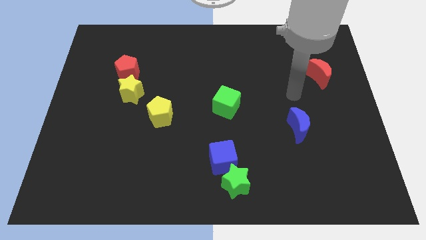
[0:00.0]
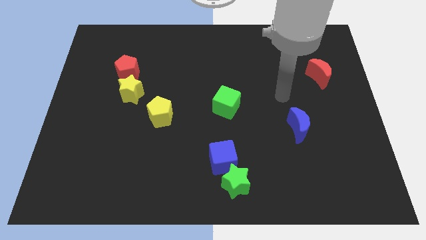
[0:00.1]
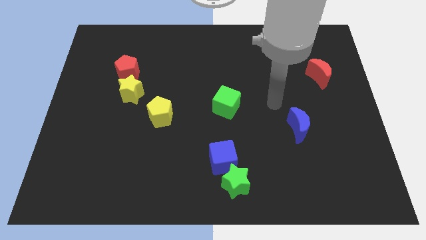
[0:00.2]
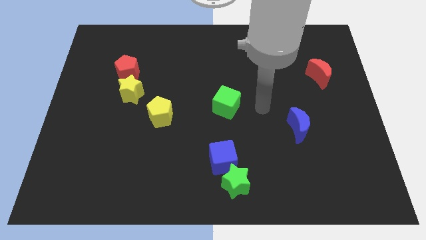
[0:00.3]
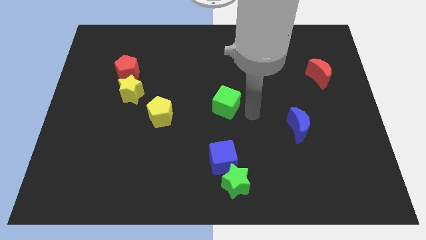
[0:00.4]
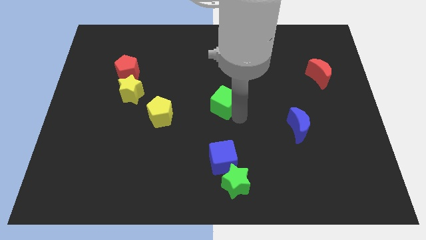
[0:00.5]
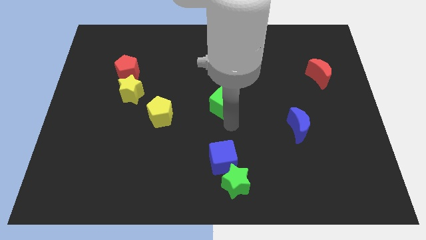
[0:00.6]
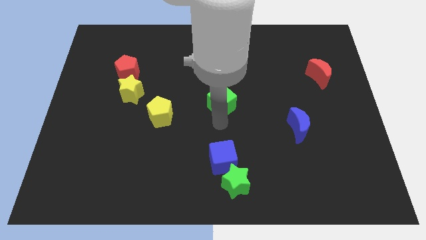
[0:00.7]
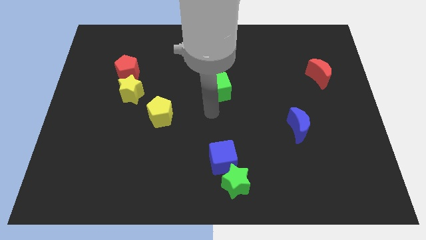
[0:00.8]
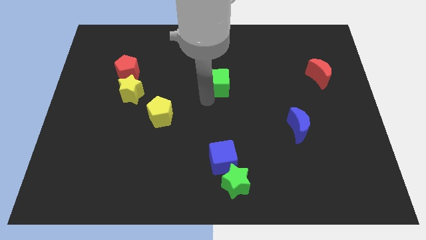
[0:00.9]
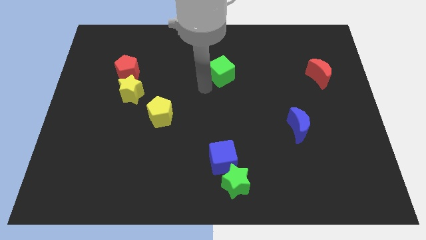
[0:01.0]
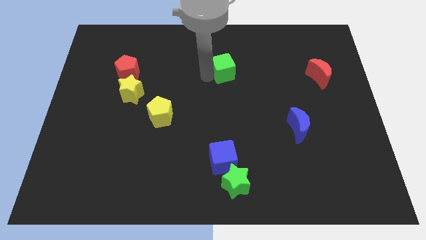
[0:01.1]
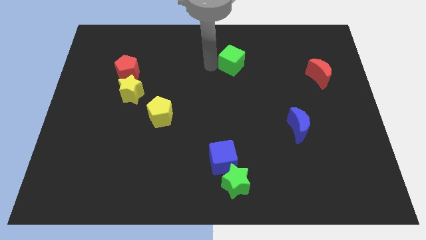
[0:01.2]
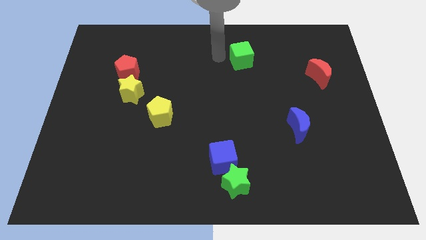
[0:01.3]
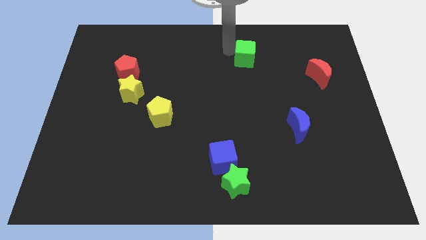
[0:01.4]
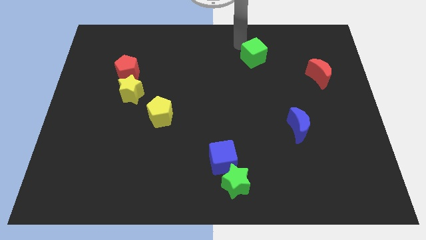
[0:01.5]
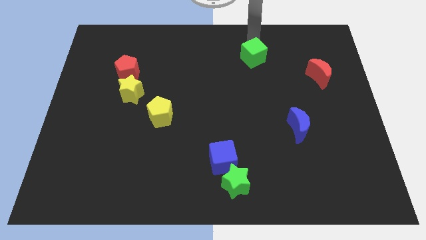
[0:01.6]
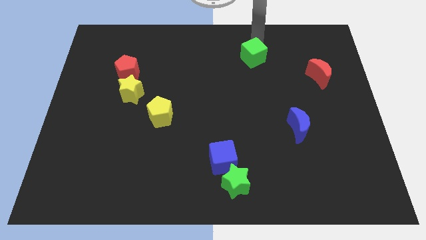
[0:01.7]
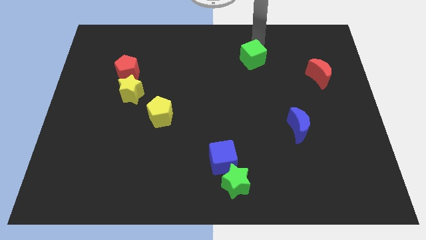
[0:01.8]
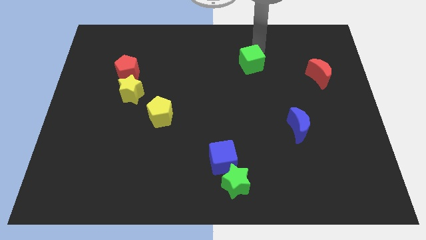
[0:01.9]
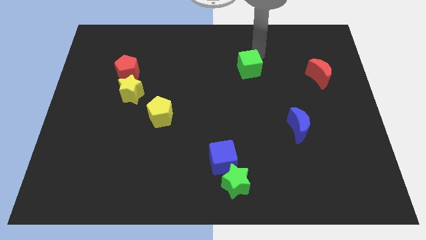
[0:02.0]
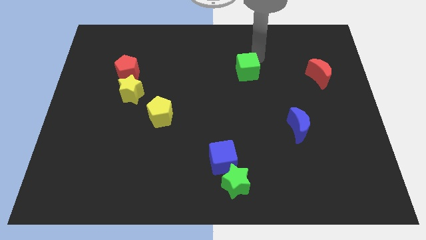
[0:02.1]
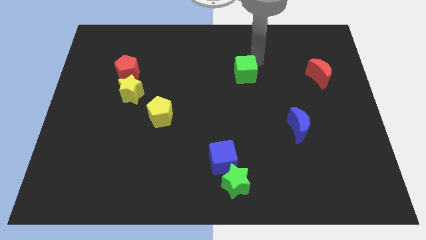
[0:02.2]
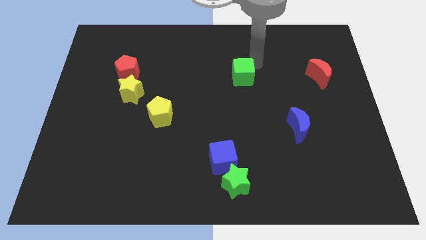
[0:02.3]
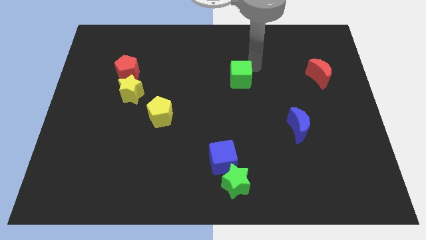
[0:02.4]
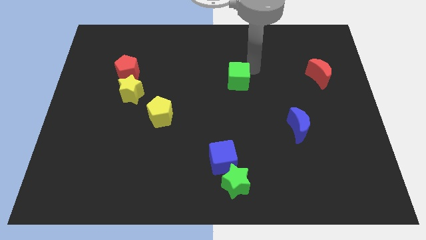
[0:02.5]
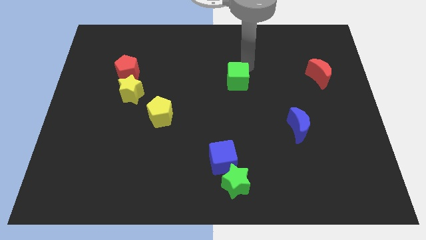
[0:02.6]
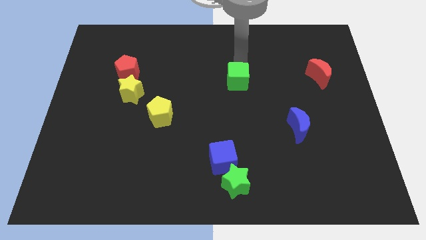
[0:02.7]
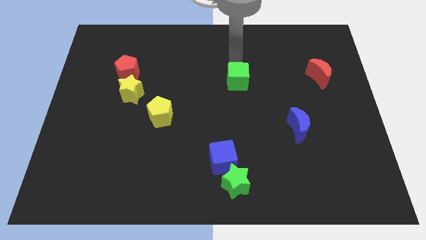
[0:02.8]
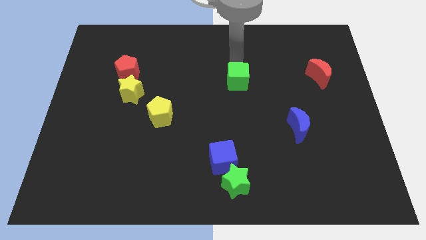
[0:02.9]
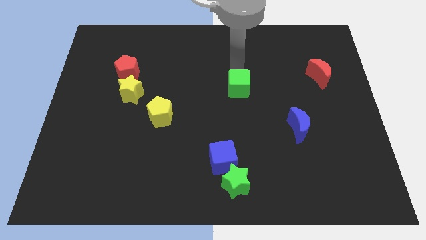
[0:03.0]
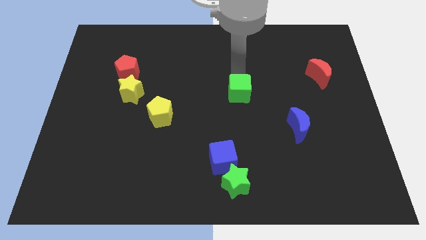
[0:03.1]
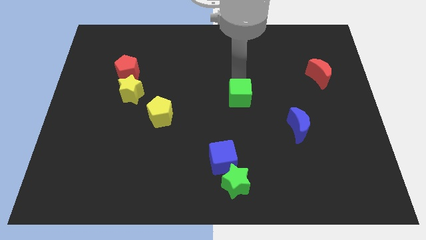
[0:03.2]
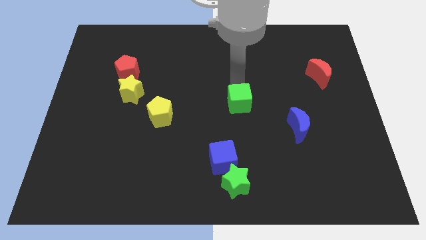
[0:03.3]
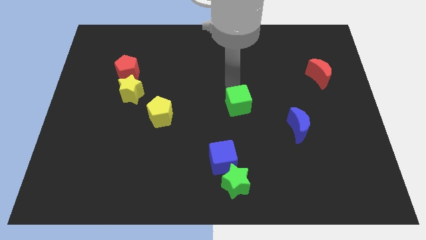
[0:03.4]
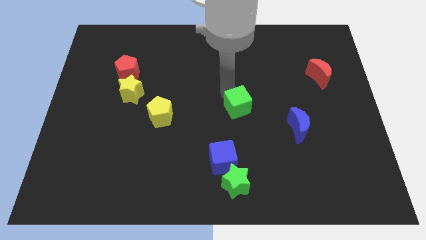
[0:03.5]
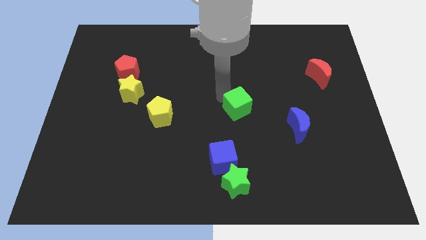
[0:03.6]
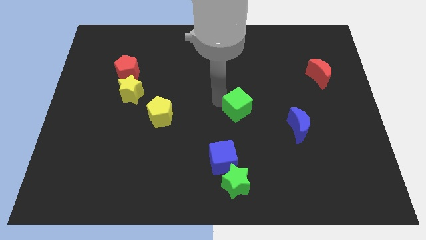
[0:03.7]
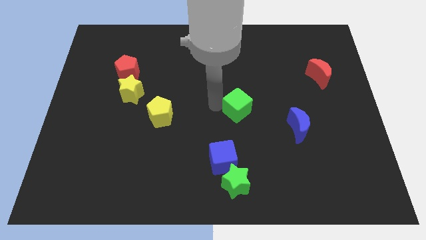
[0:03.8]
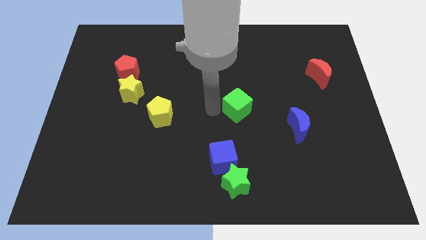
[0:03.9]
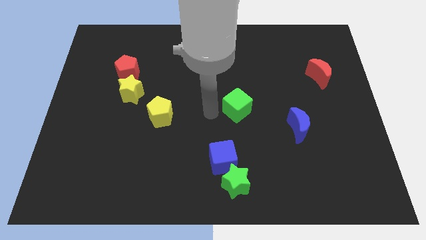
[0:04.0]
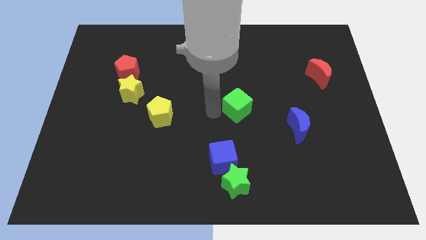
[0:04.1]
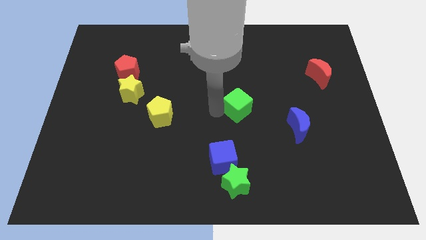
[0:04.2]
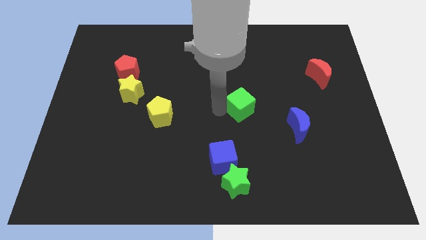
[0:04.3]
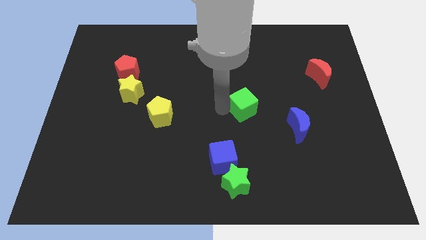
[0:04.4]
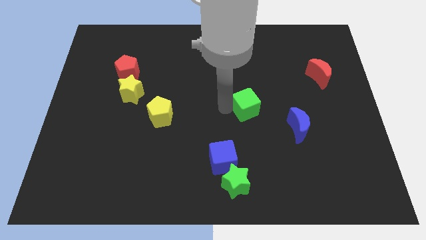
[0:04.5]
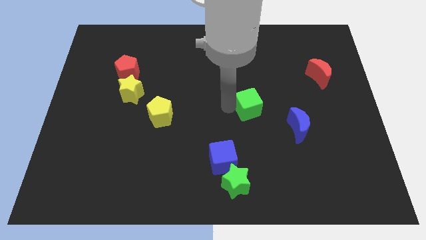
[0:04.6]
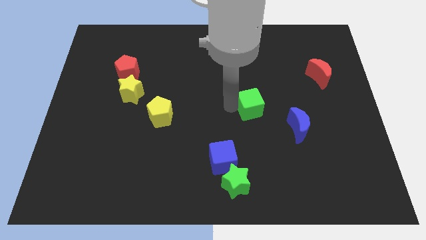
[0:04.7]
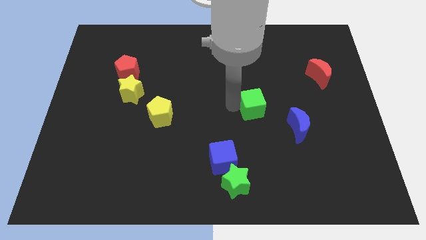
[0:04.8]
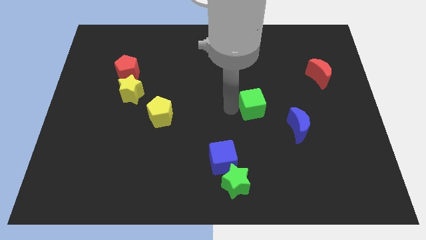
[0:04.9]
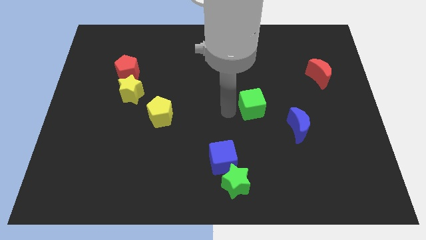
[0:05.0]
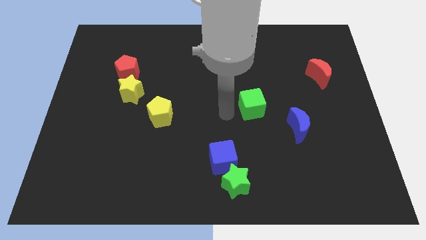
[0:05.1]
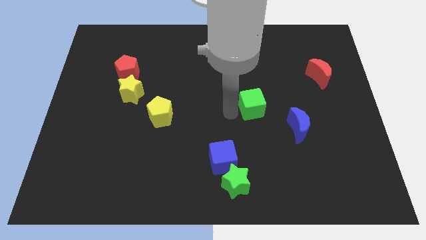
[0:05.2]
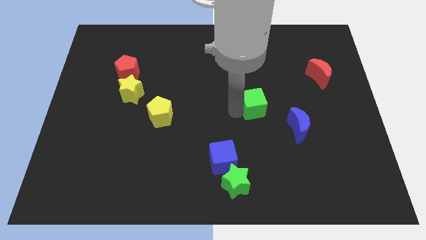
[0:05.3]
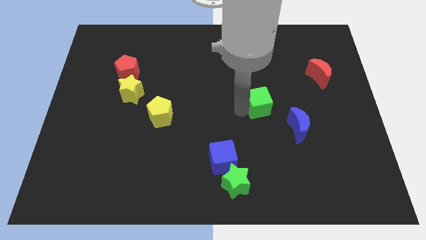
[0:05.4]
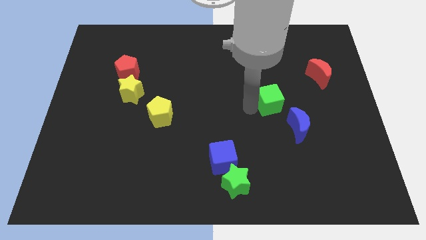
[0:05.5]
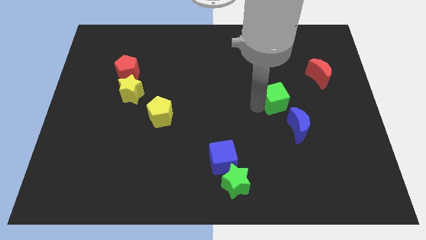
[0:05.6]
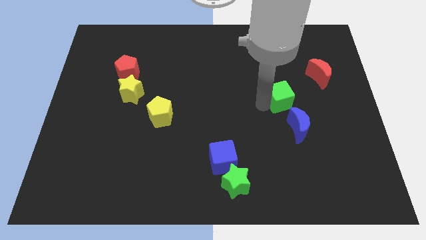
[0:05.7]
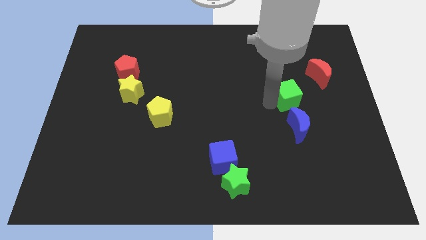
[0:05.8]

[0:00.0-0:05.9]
put the green cube to the bottom left side of the red moon

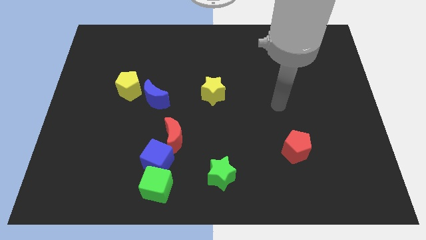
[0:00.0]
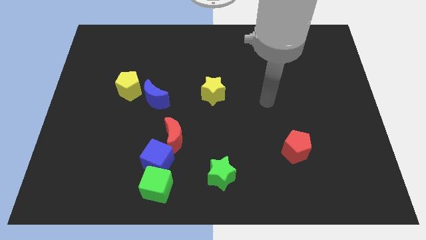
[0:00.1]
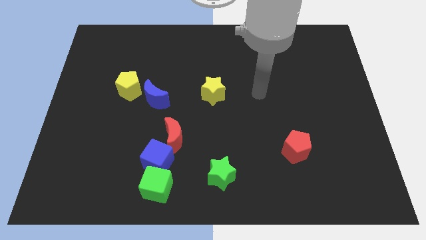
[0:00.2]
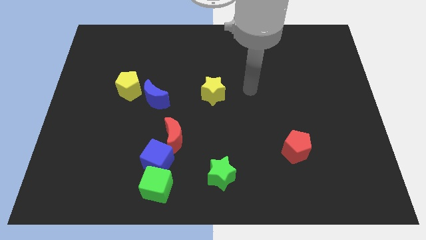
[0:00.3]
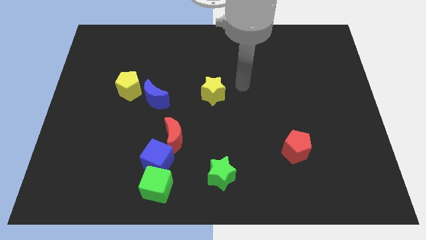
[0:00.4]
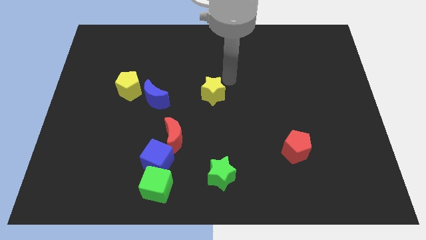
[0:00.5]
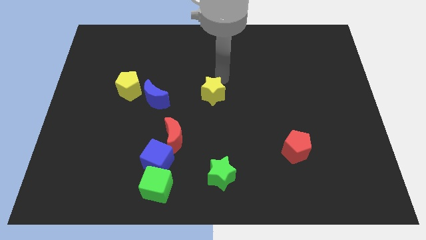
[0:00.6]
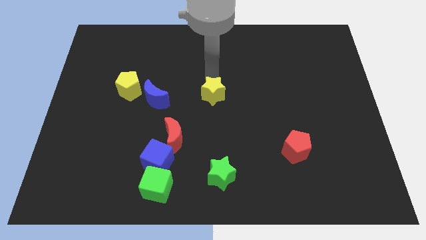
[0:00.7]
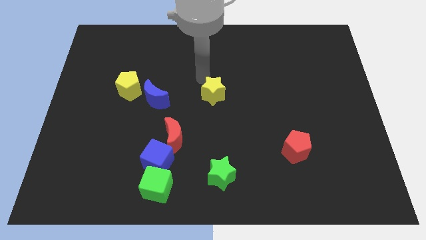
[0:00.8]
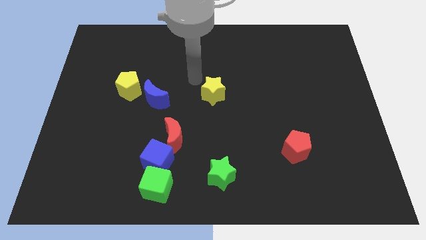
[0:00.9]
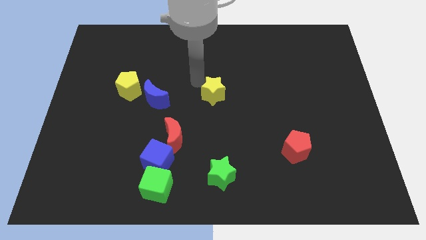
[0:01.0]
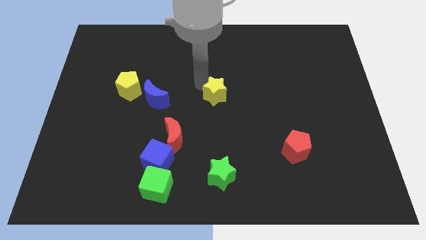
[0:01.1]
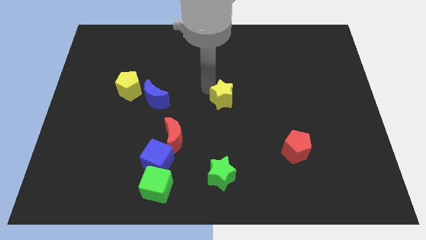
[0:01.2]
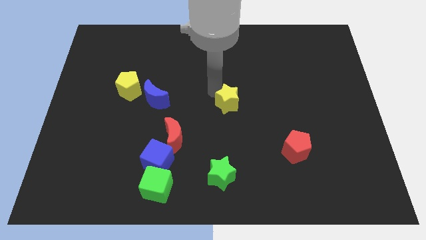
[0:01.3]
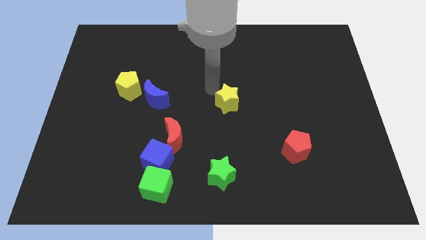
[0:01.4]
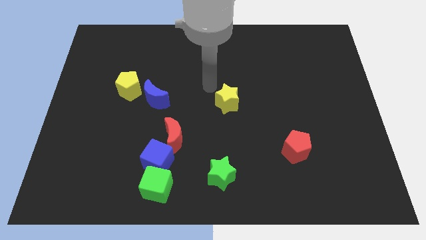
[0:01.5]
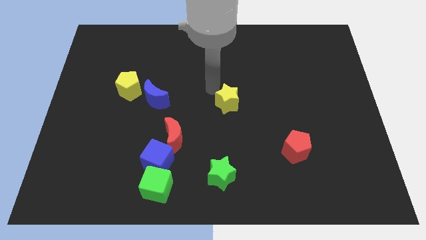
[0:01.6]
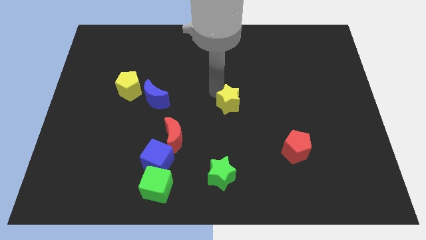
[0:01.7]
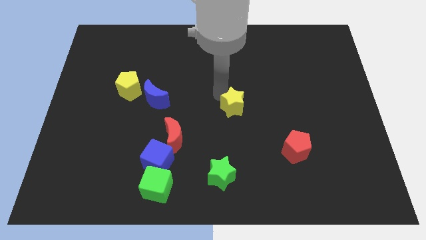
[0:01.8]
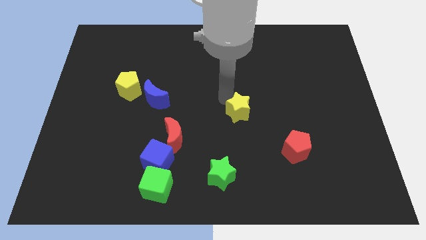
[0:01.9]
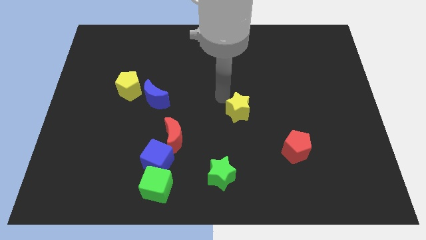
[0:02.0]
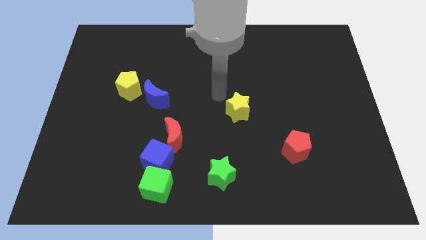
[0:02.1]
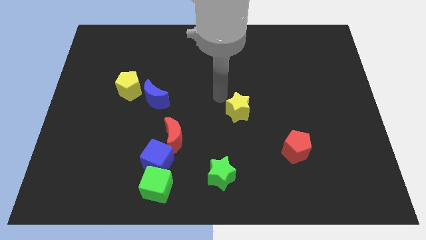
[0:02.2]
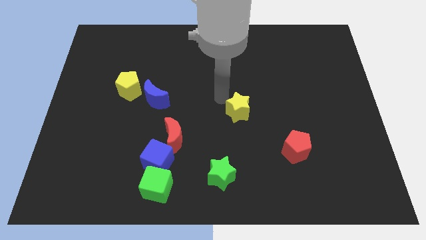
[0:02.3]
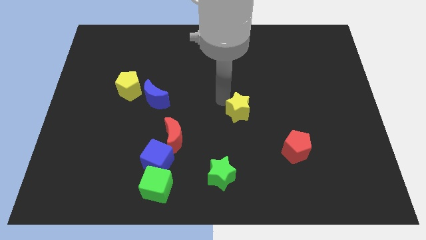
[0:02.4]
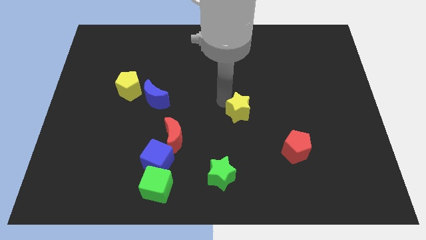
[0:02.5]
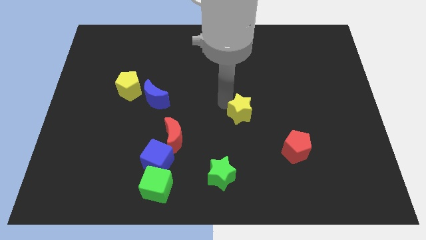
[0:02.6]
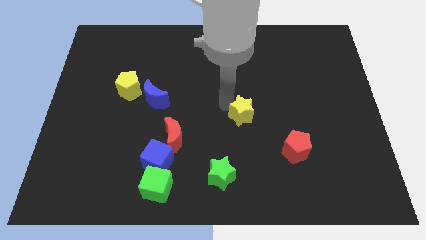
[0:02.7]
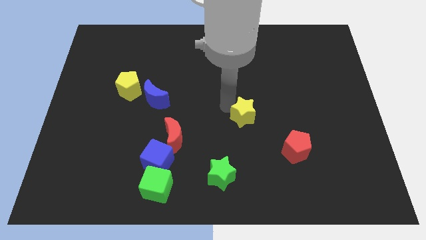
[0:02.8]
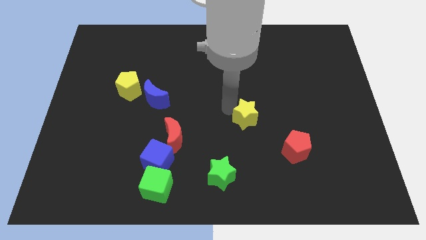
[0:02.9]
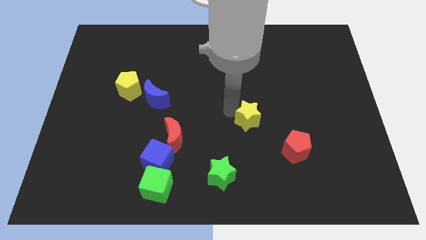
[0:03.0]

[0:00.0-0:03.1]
push the yellow star to the top left side of the red pentagon
